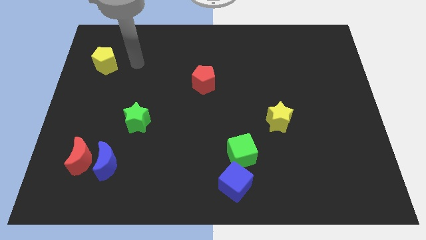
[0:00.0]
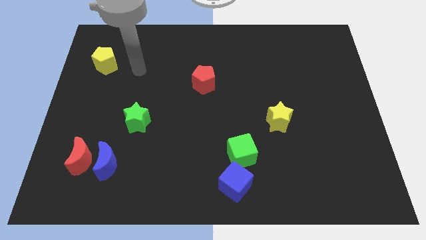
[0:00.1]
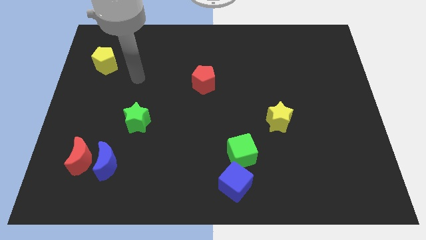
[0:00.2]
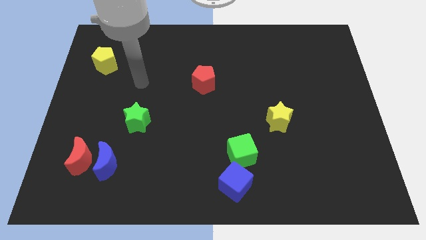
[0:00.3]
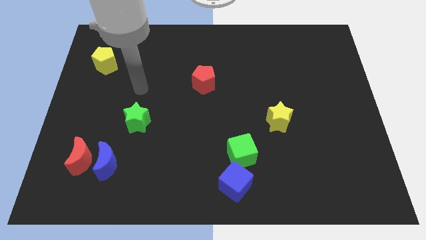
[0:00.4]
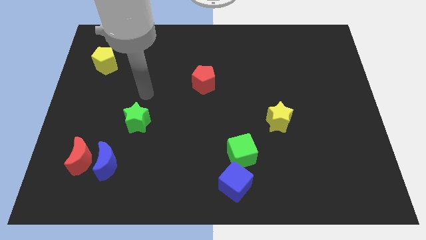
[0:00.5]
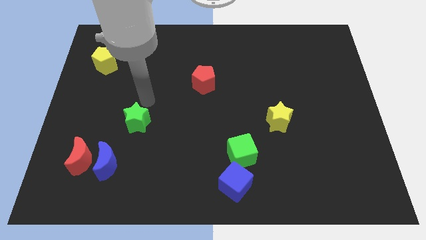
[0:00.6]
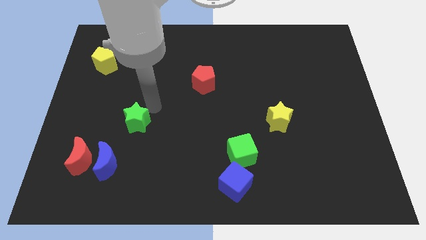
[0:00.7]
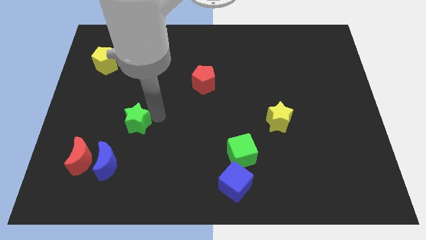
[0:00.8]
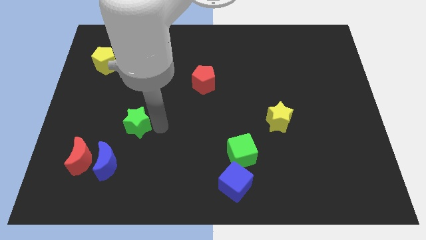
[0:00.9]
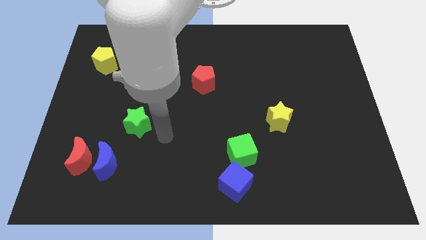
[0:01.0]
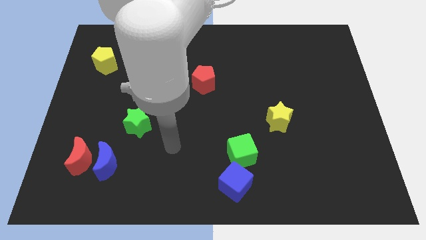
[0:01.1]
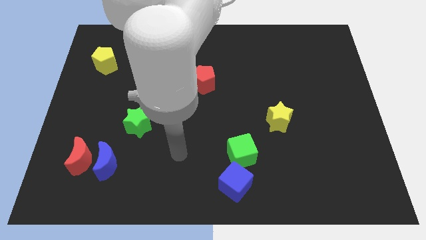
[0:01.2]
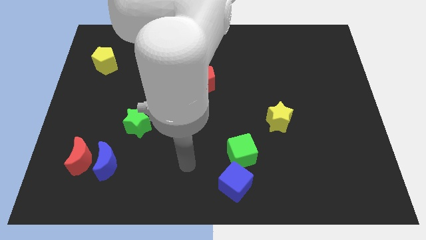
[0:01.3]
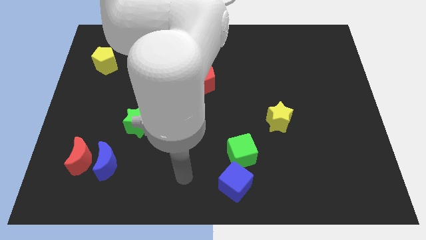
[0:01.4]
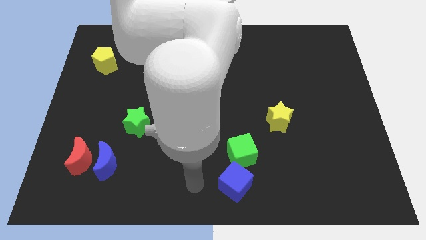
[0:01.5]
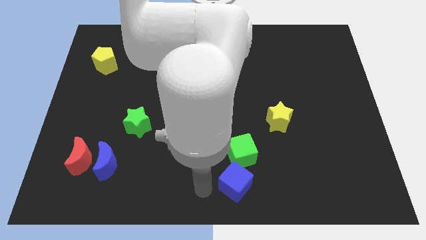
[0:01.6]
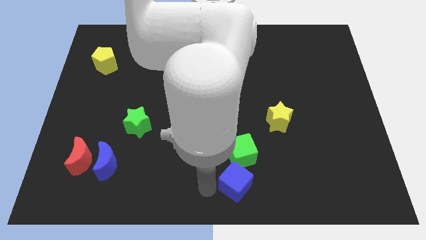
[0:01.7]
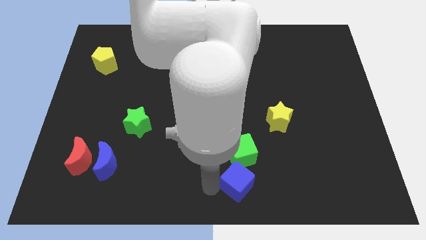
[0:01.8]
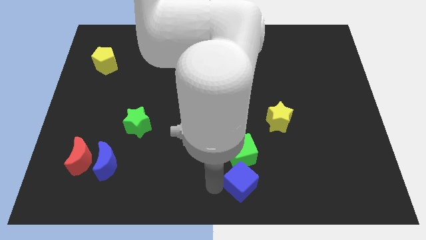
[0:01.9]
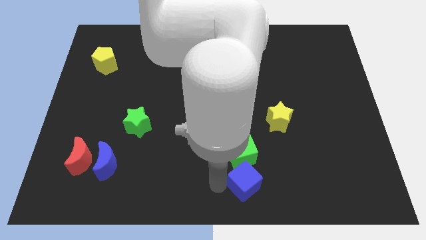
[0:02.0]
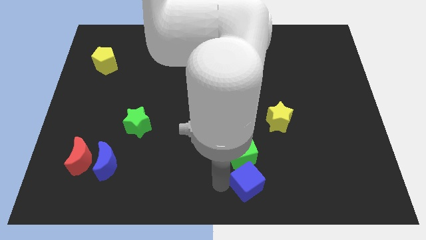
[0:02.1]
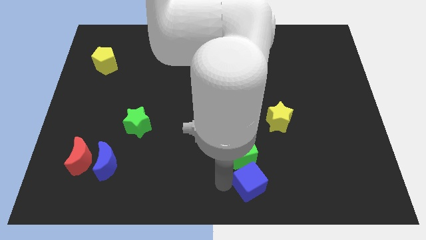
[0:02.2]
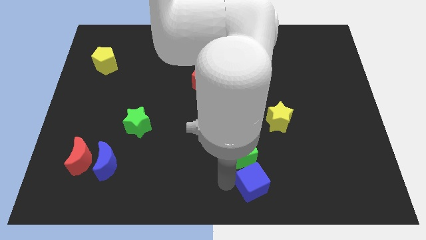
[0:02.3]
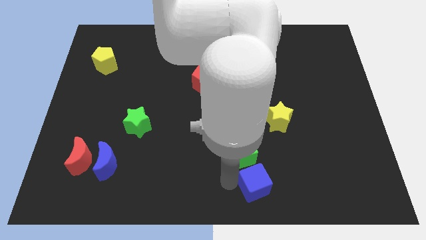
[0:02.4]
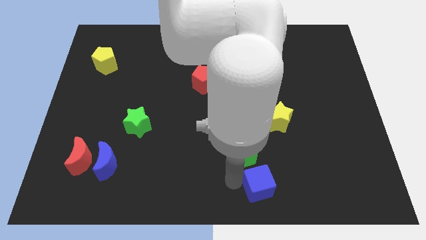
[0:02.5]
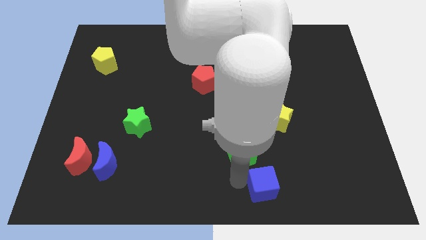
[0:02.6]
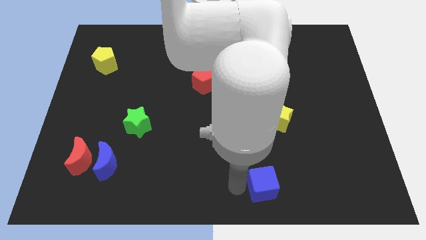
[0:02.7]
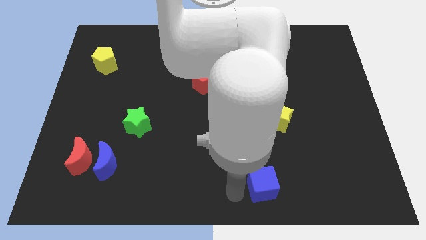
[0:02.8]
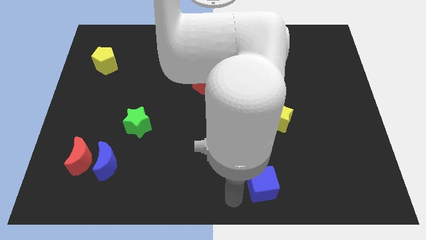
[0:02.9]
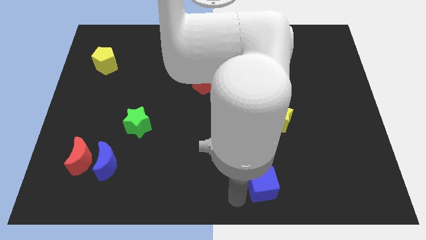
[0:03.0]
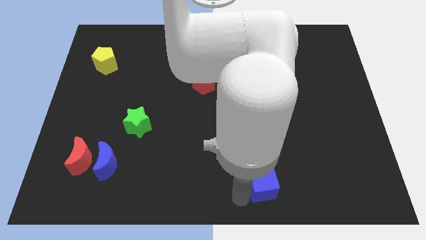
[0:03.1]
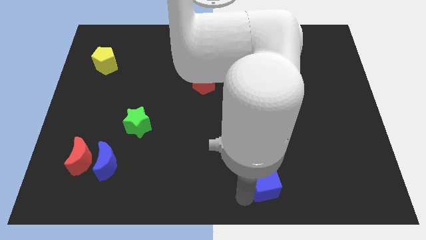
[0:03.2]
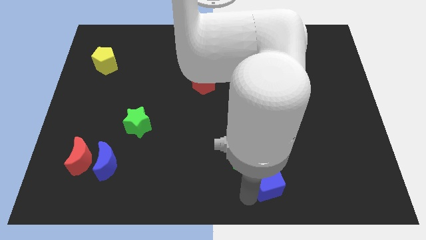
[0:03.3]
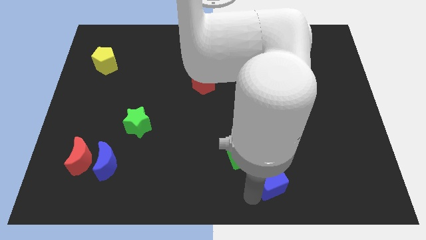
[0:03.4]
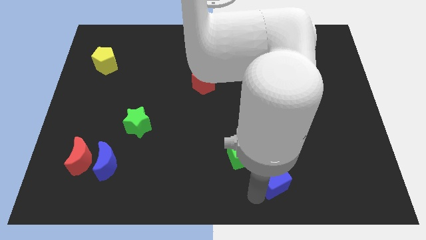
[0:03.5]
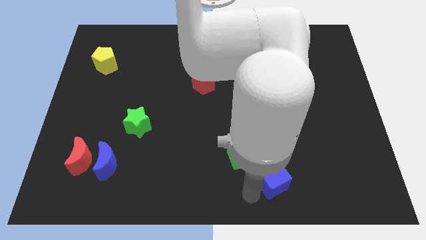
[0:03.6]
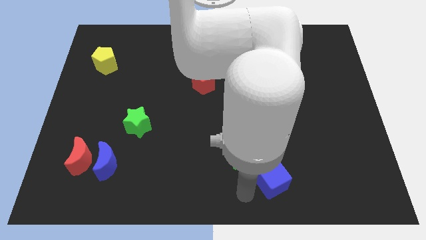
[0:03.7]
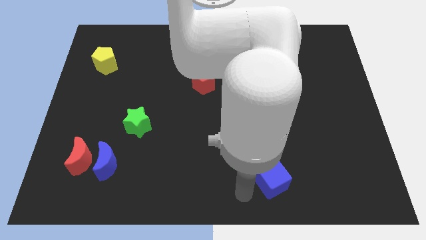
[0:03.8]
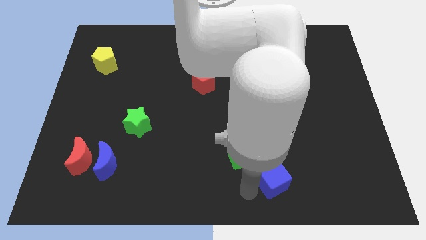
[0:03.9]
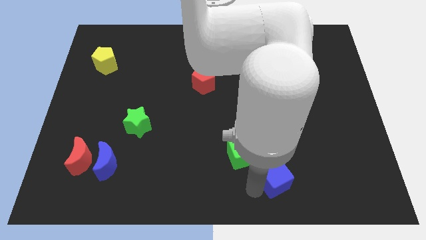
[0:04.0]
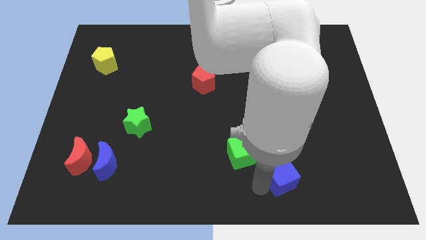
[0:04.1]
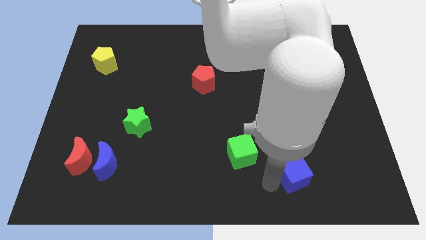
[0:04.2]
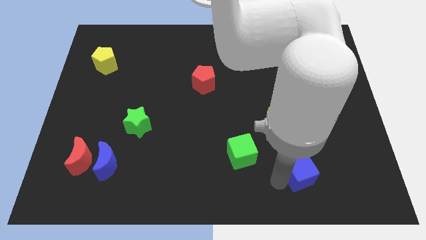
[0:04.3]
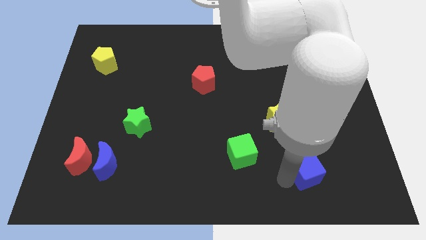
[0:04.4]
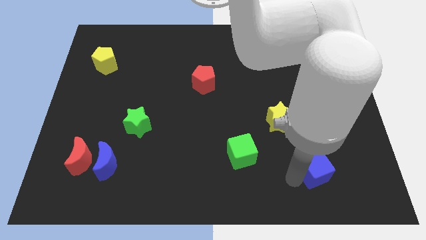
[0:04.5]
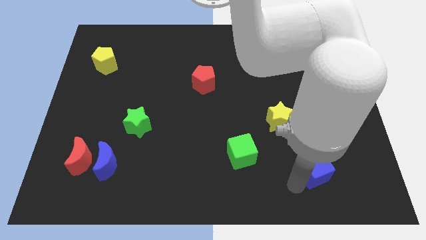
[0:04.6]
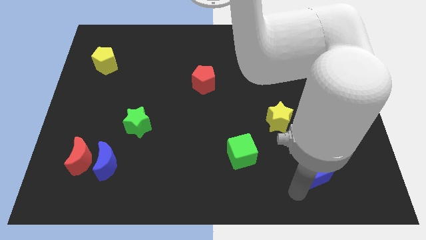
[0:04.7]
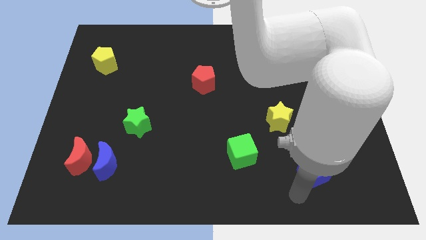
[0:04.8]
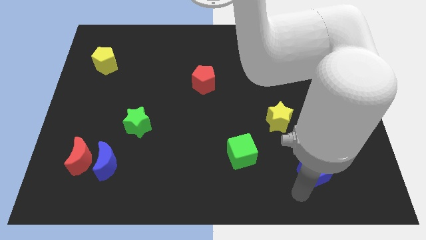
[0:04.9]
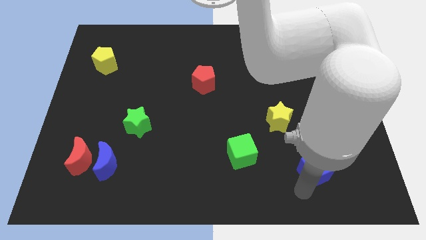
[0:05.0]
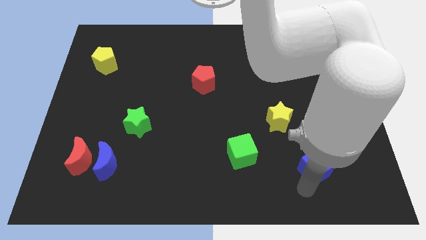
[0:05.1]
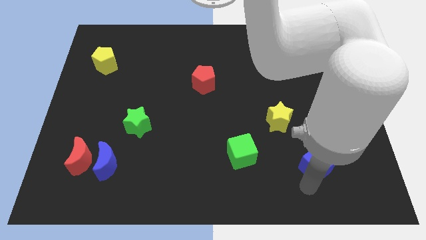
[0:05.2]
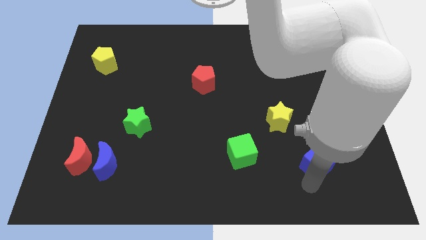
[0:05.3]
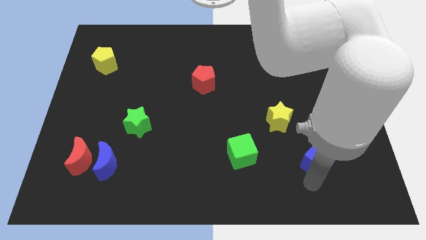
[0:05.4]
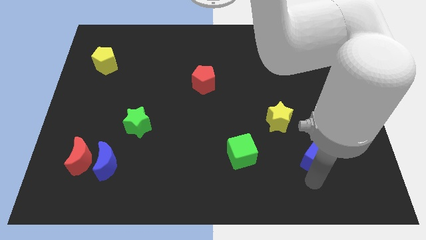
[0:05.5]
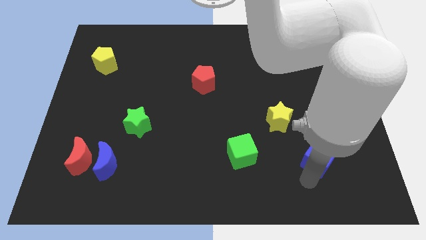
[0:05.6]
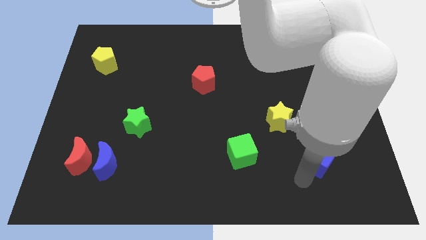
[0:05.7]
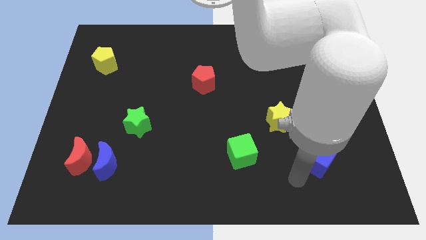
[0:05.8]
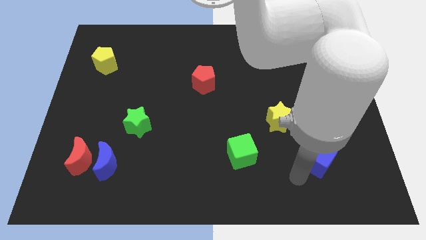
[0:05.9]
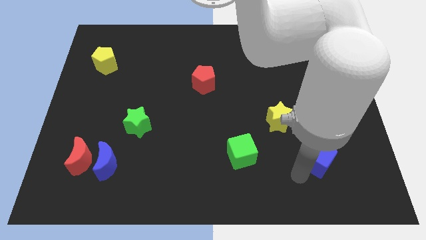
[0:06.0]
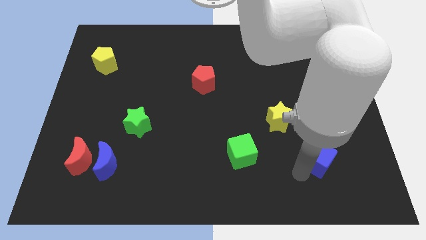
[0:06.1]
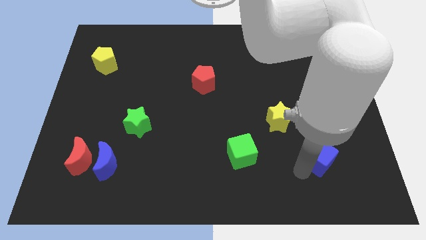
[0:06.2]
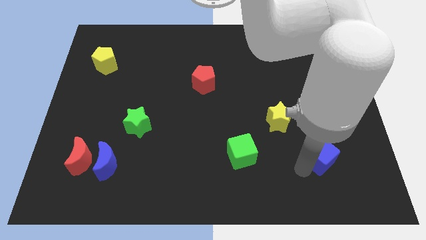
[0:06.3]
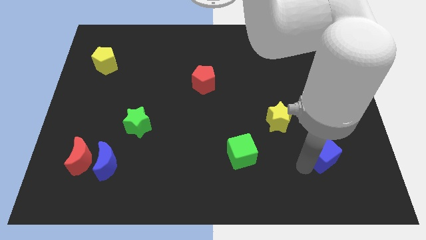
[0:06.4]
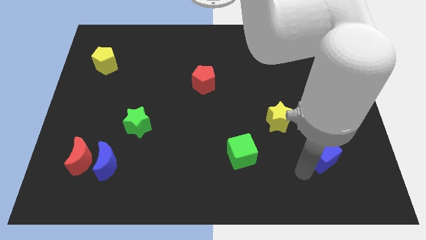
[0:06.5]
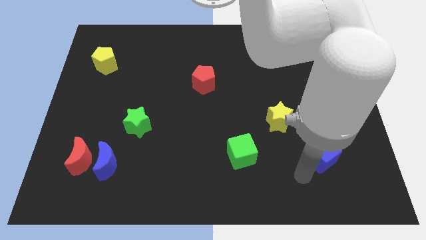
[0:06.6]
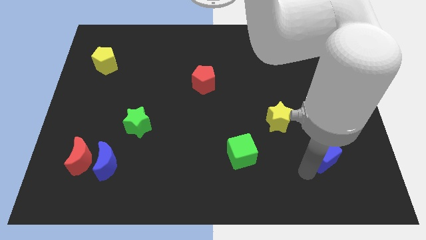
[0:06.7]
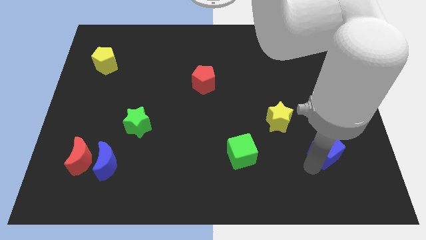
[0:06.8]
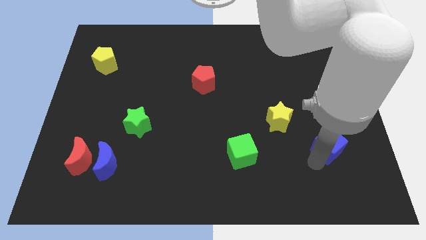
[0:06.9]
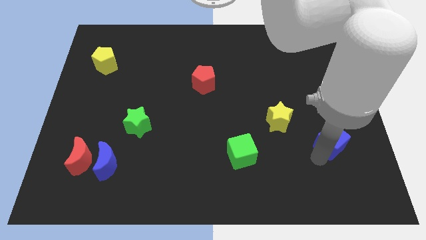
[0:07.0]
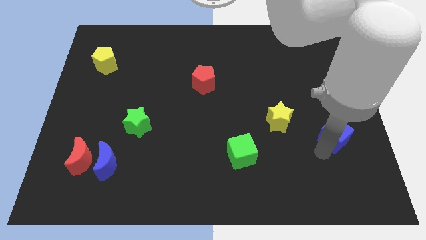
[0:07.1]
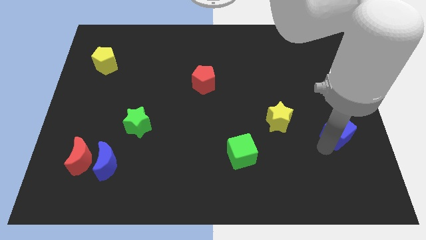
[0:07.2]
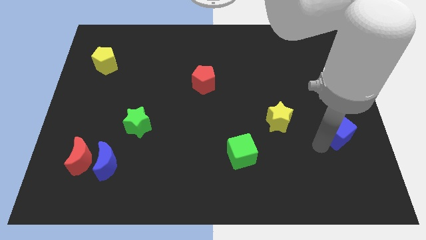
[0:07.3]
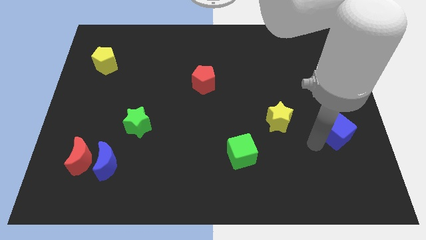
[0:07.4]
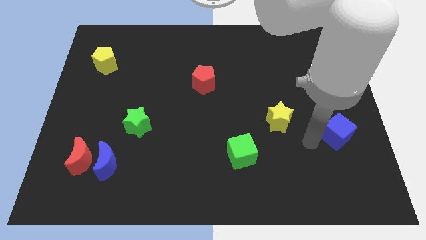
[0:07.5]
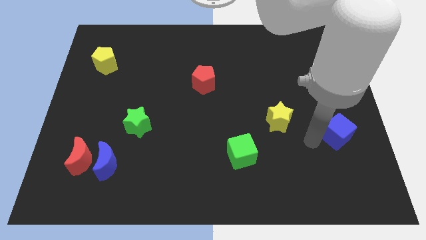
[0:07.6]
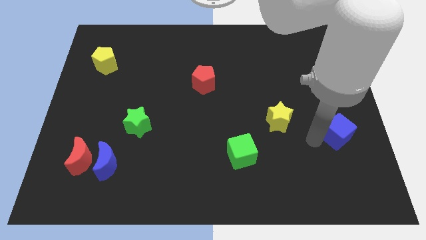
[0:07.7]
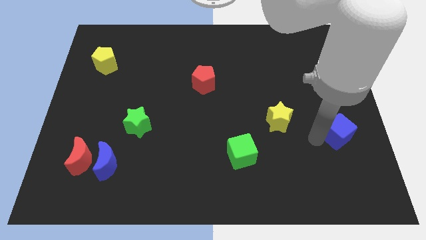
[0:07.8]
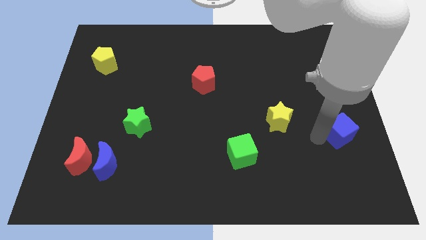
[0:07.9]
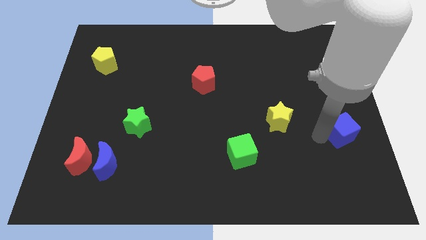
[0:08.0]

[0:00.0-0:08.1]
move the blue cube to the right side
